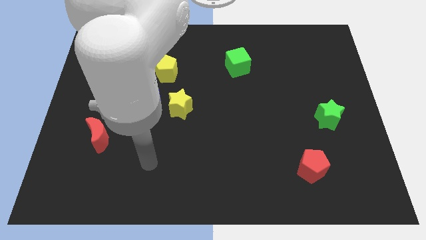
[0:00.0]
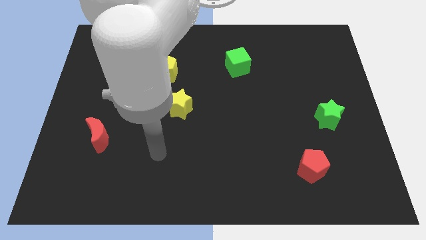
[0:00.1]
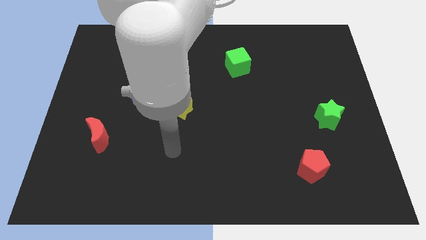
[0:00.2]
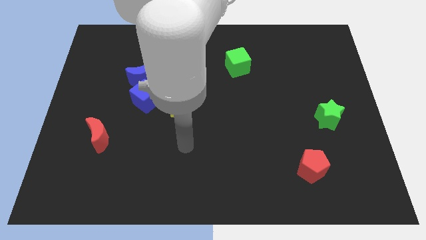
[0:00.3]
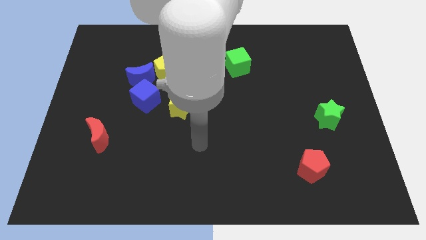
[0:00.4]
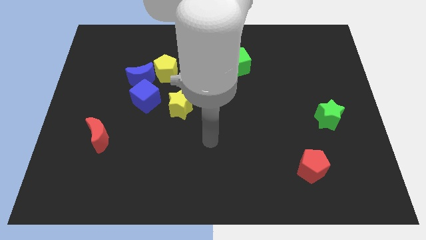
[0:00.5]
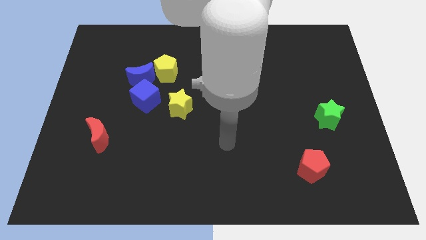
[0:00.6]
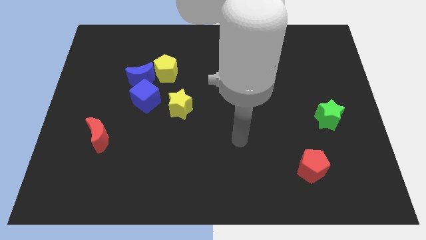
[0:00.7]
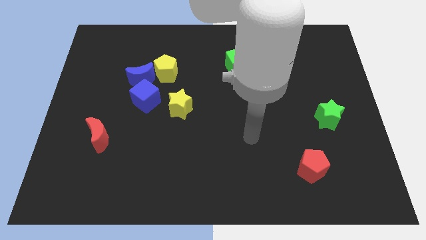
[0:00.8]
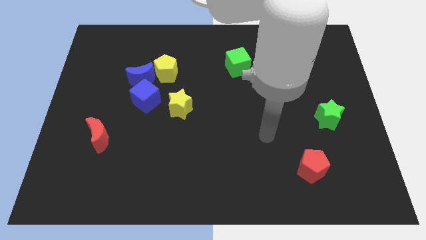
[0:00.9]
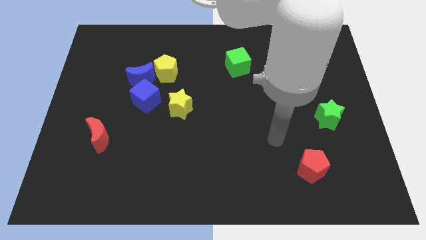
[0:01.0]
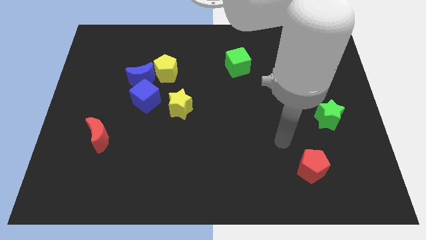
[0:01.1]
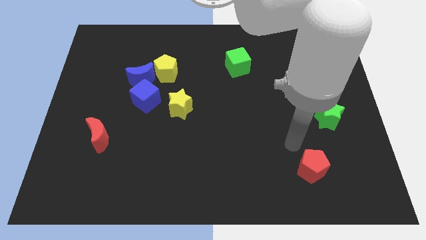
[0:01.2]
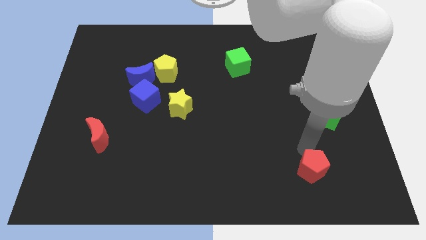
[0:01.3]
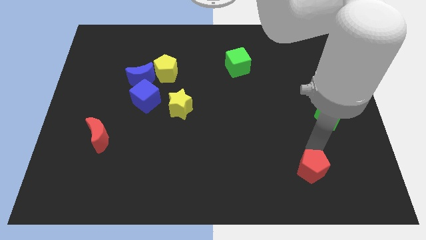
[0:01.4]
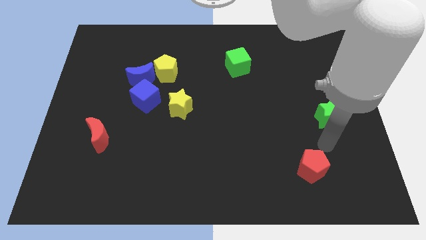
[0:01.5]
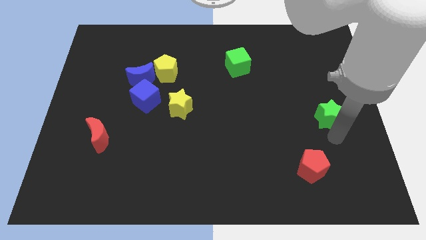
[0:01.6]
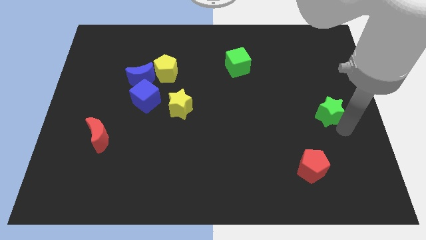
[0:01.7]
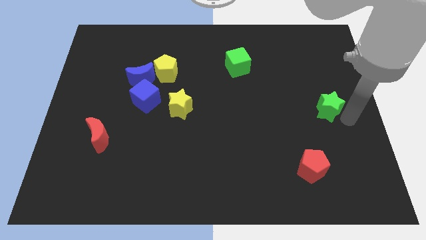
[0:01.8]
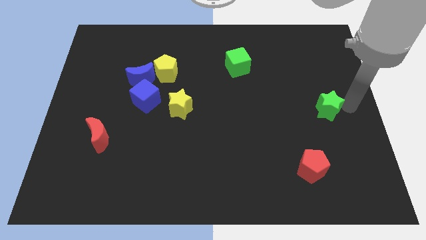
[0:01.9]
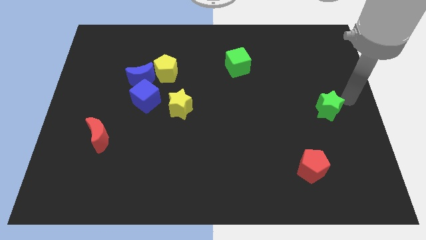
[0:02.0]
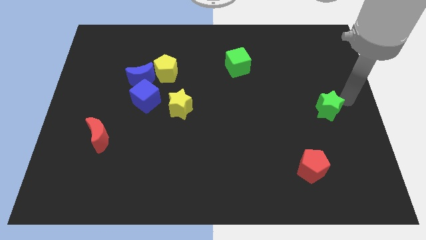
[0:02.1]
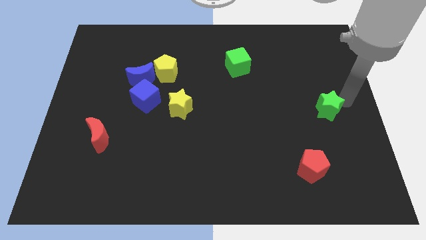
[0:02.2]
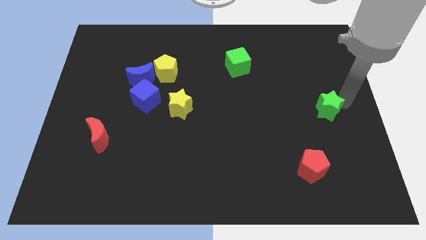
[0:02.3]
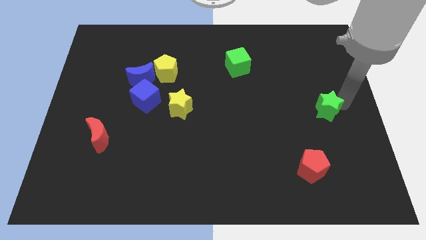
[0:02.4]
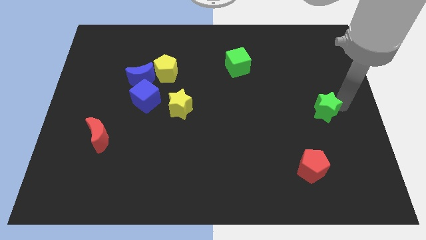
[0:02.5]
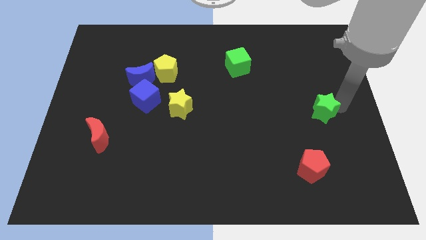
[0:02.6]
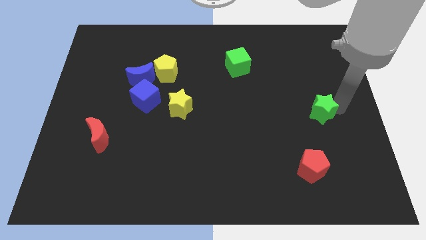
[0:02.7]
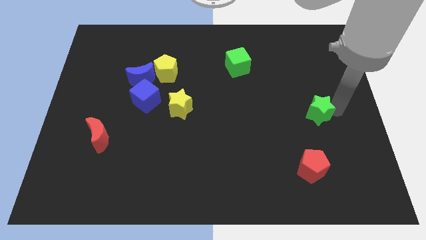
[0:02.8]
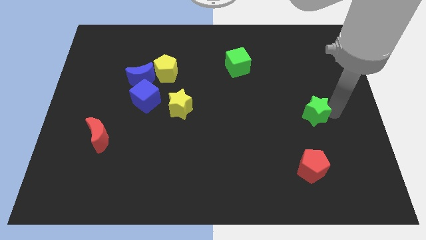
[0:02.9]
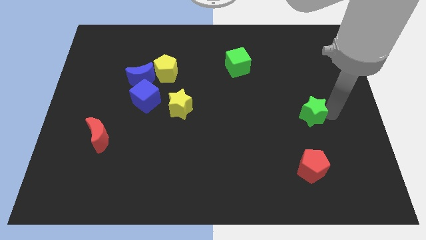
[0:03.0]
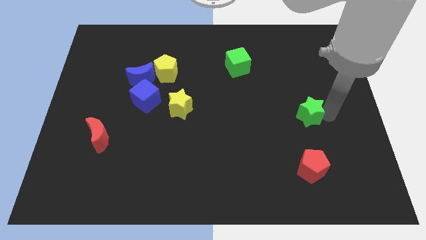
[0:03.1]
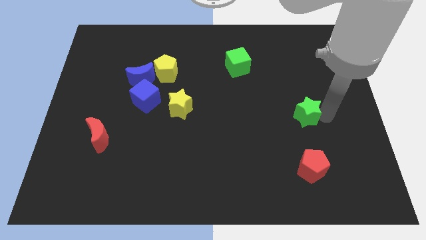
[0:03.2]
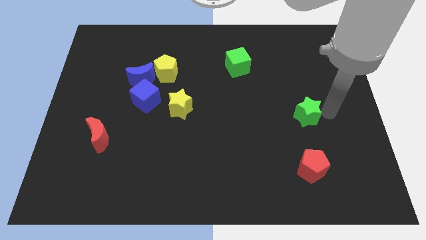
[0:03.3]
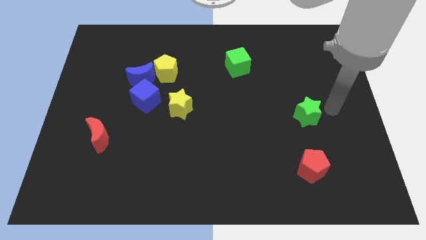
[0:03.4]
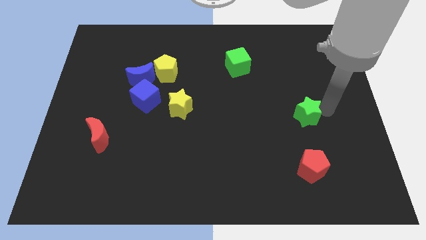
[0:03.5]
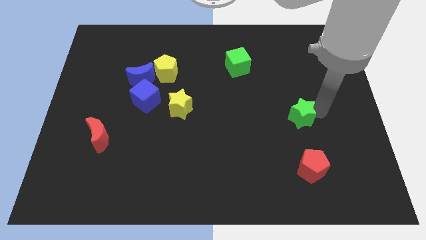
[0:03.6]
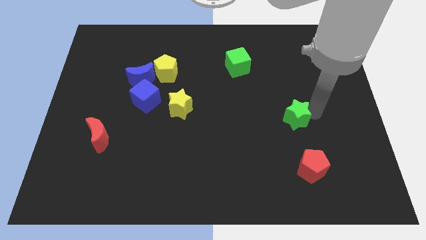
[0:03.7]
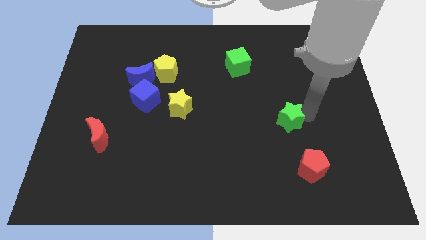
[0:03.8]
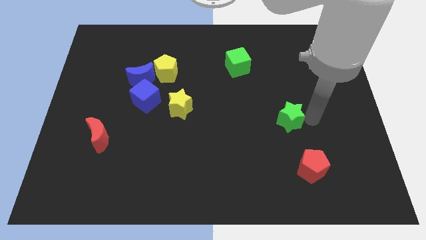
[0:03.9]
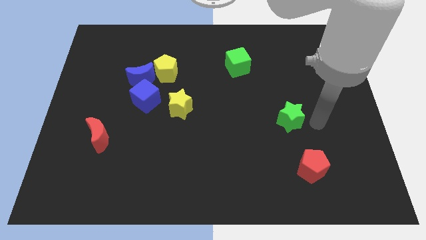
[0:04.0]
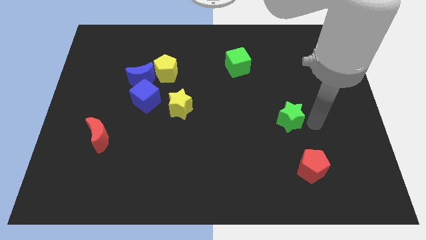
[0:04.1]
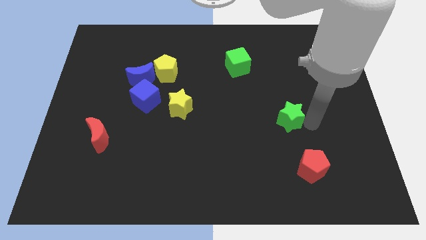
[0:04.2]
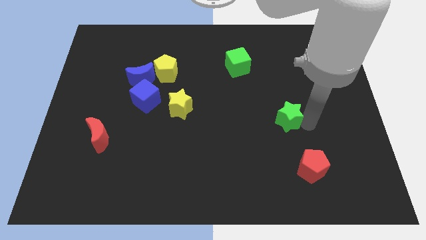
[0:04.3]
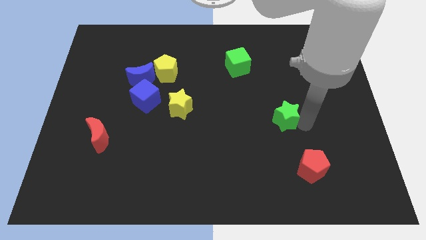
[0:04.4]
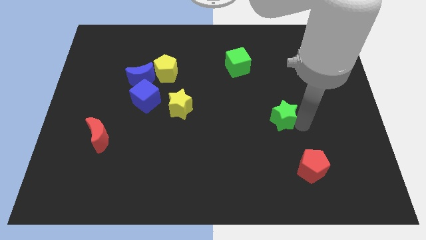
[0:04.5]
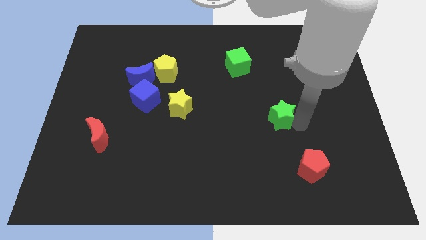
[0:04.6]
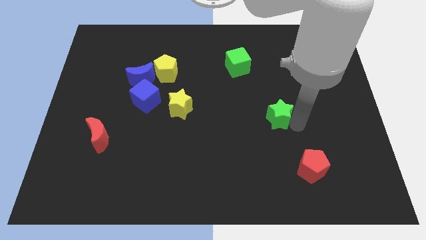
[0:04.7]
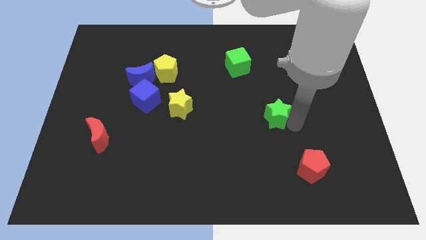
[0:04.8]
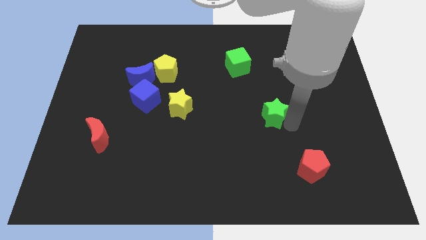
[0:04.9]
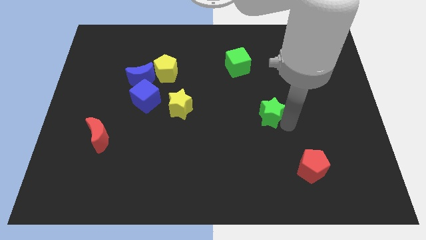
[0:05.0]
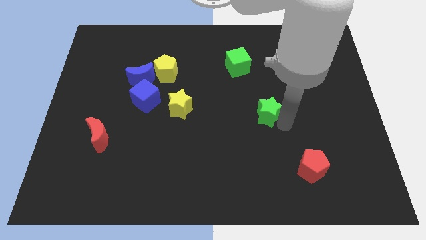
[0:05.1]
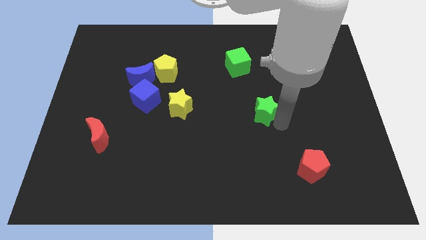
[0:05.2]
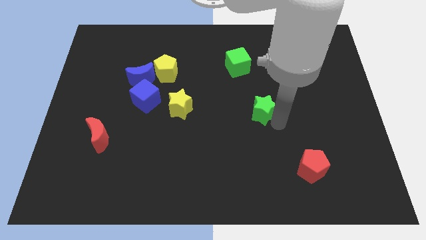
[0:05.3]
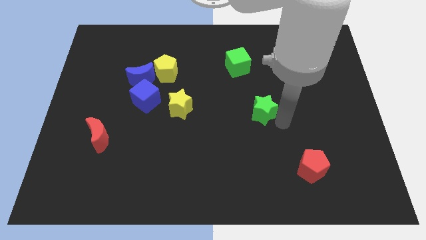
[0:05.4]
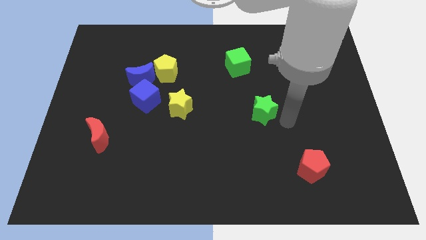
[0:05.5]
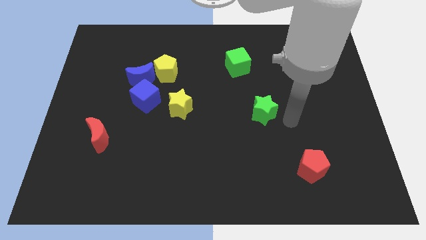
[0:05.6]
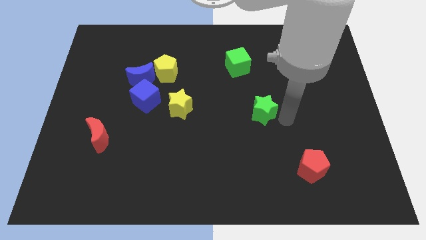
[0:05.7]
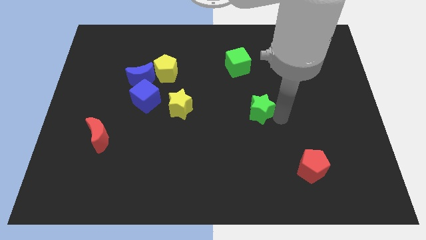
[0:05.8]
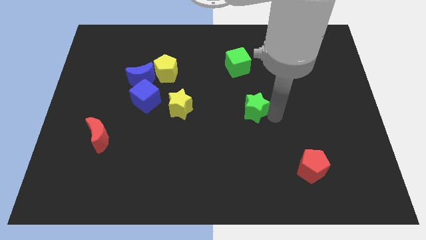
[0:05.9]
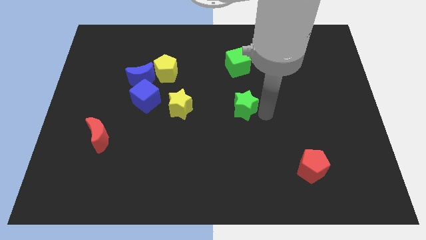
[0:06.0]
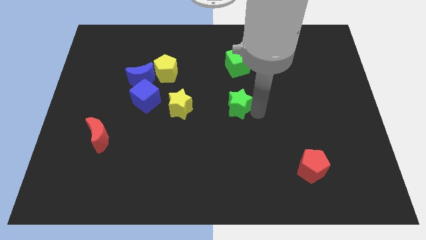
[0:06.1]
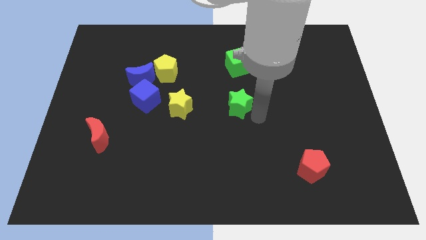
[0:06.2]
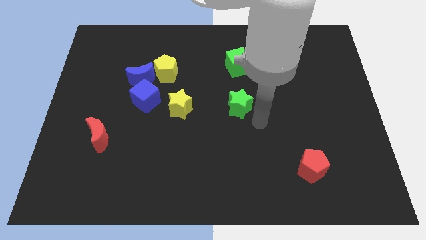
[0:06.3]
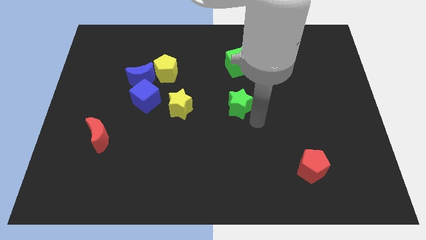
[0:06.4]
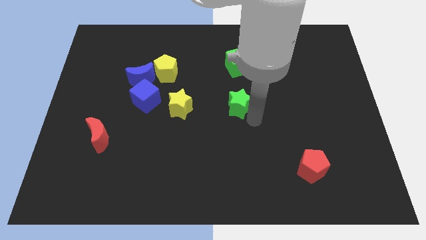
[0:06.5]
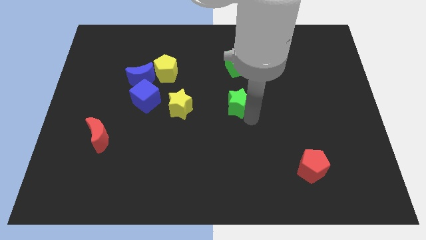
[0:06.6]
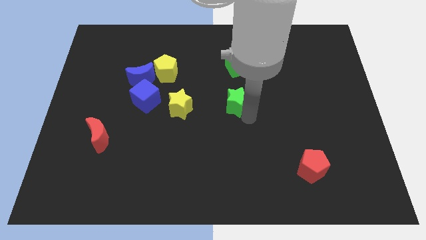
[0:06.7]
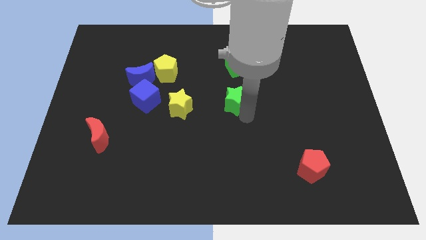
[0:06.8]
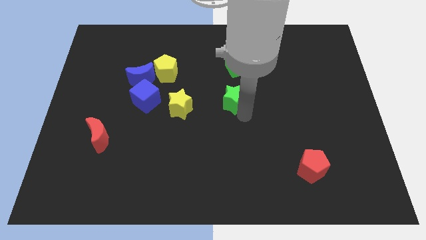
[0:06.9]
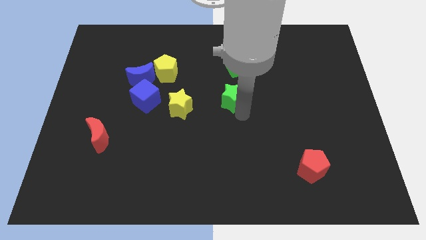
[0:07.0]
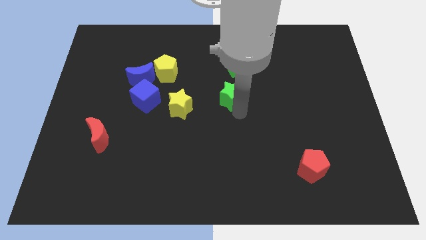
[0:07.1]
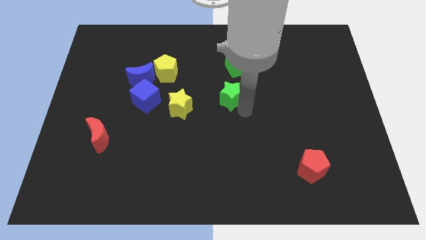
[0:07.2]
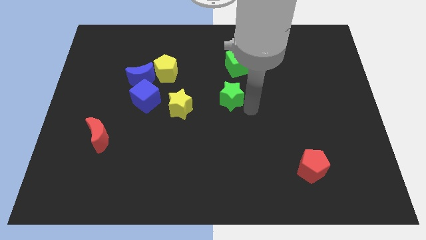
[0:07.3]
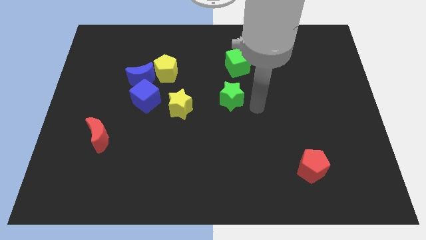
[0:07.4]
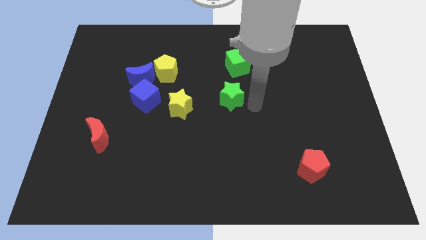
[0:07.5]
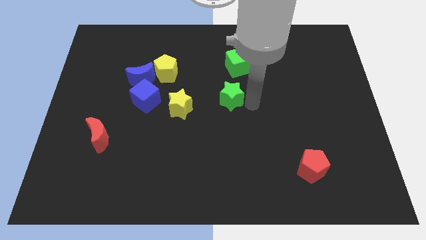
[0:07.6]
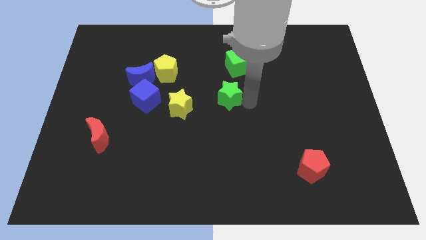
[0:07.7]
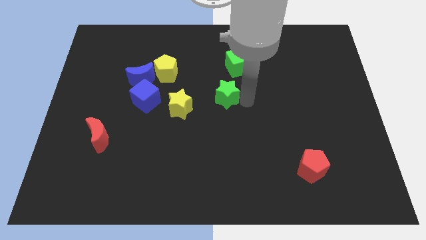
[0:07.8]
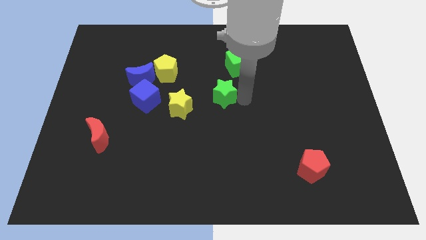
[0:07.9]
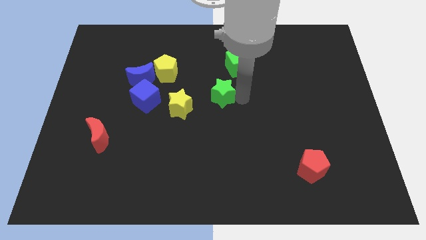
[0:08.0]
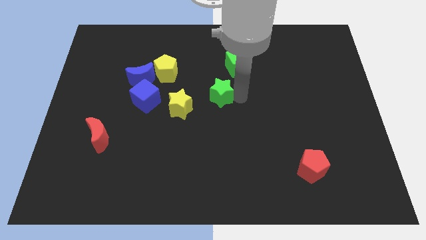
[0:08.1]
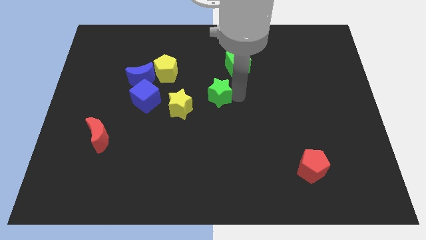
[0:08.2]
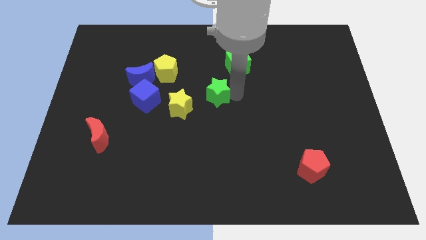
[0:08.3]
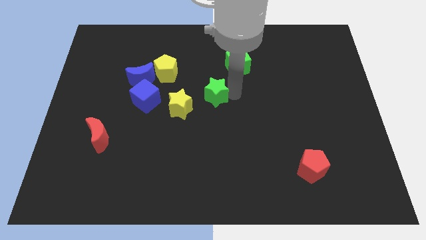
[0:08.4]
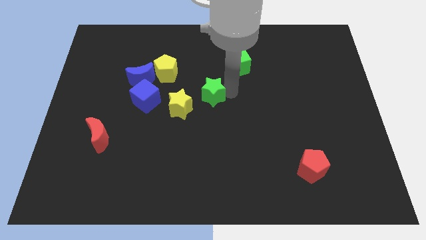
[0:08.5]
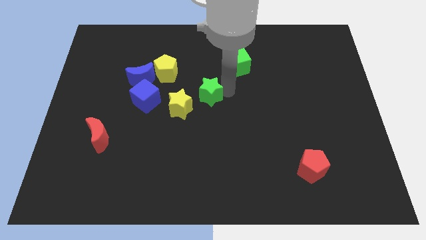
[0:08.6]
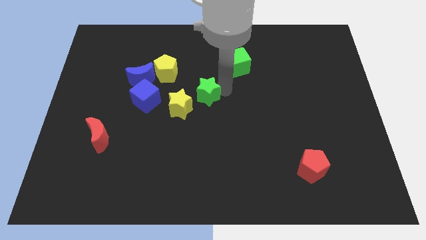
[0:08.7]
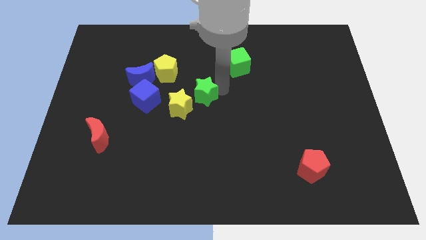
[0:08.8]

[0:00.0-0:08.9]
push the green star diagonally down and to the right of the yellow pentagon
